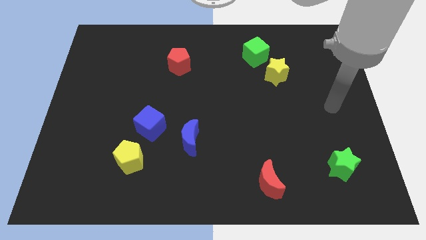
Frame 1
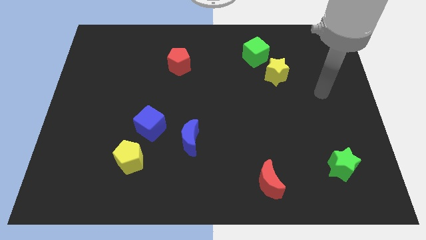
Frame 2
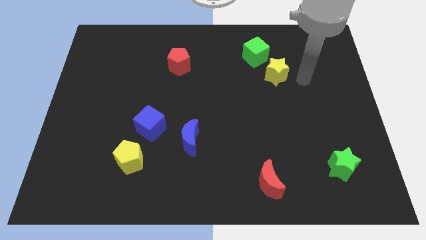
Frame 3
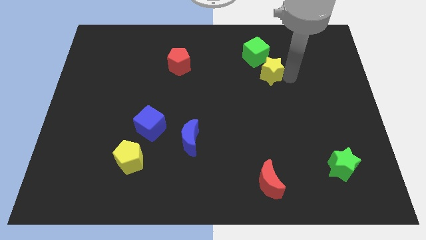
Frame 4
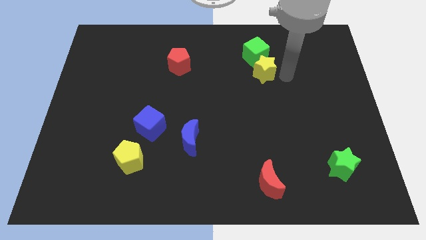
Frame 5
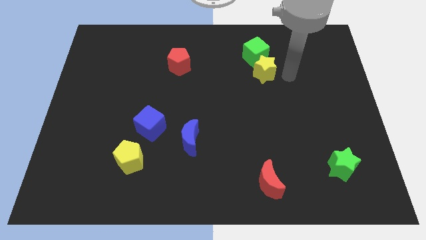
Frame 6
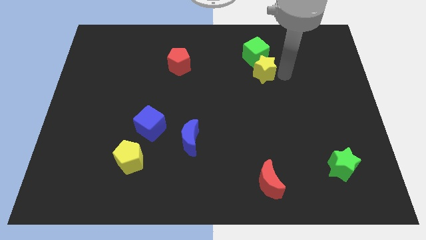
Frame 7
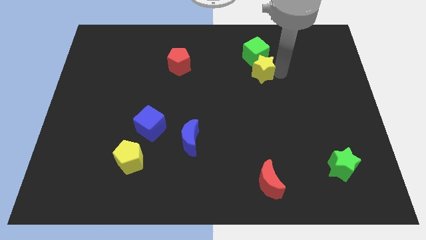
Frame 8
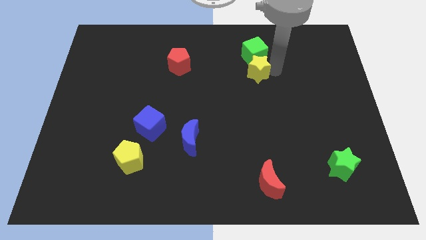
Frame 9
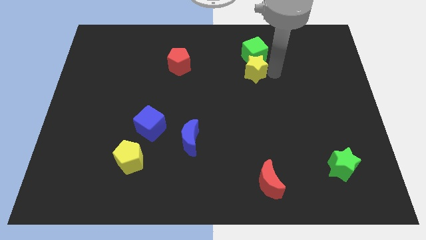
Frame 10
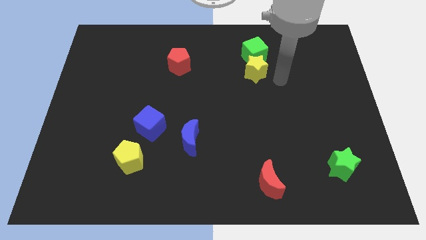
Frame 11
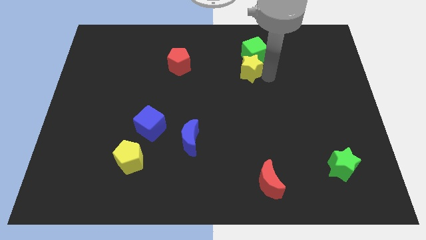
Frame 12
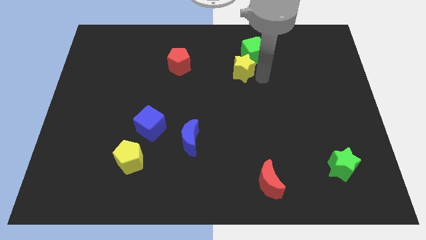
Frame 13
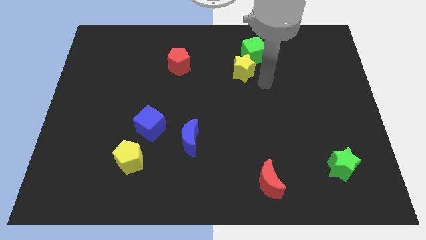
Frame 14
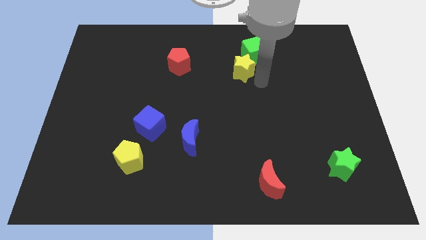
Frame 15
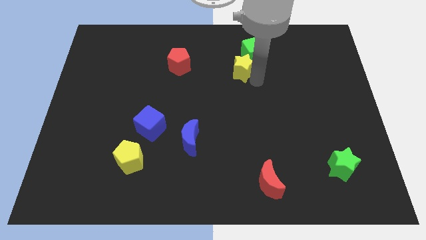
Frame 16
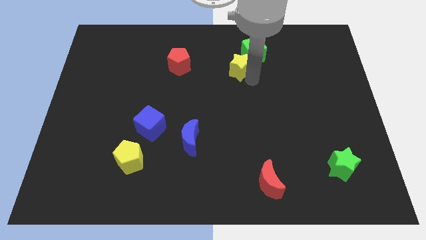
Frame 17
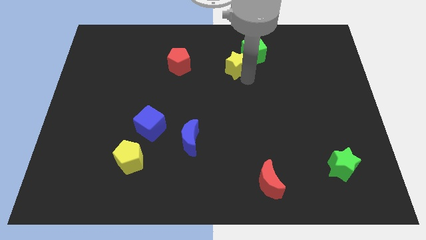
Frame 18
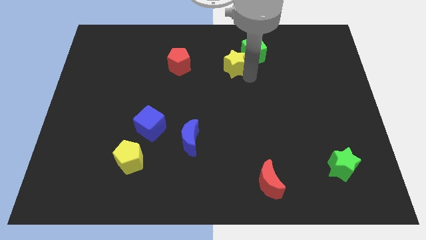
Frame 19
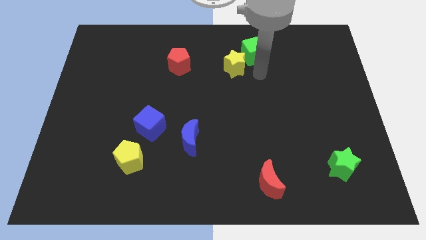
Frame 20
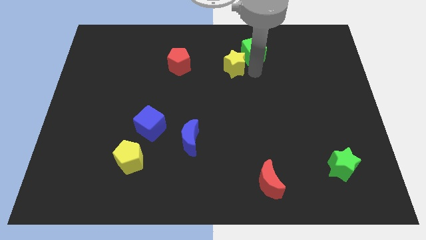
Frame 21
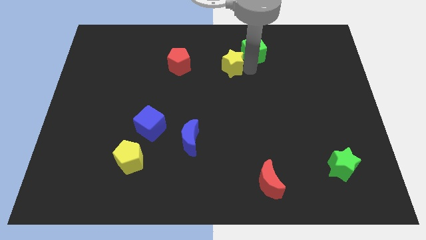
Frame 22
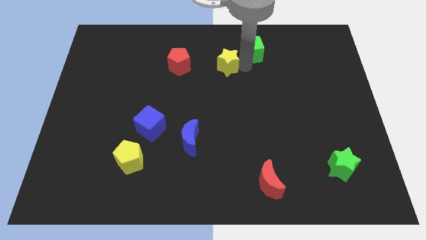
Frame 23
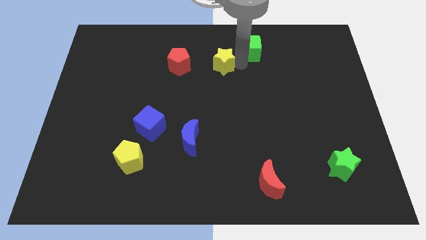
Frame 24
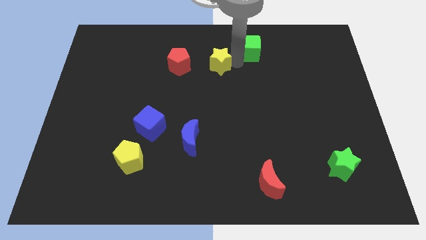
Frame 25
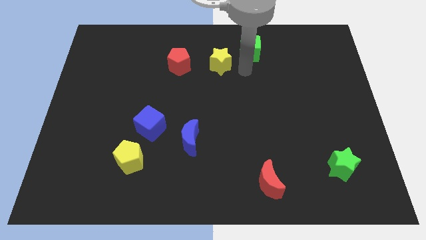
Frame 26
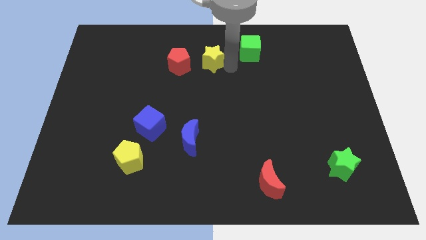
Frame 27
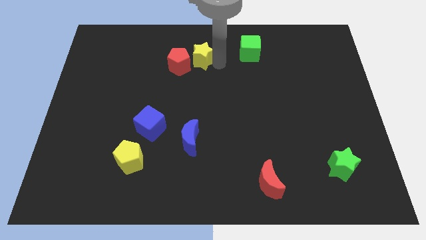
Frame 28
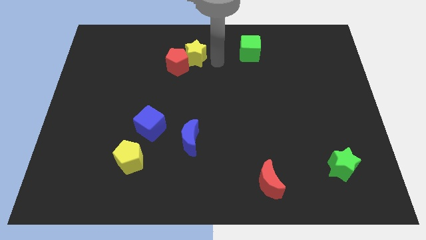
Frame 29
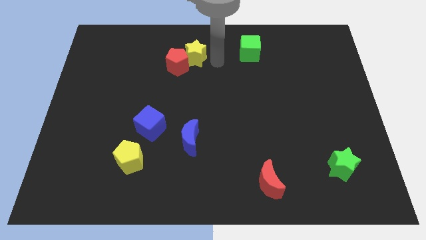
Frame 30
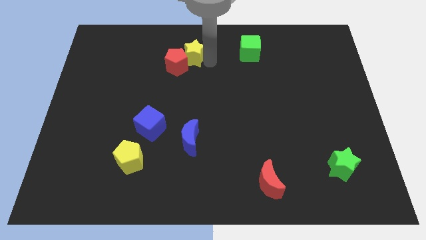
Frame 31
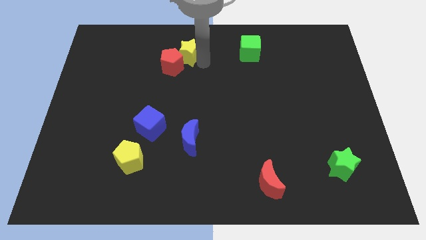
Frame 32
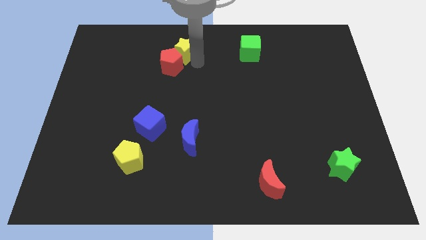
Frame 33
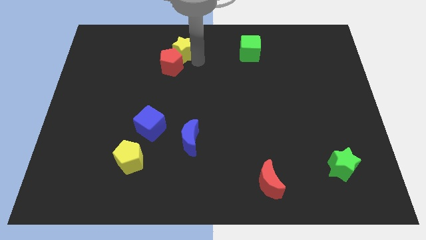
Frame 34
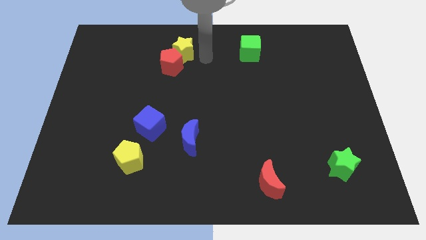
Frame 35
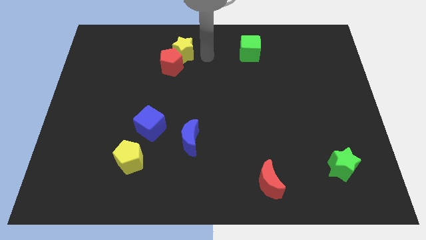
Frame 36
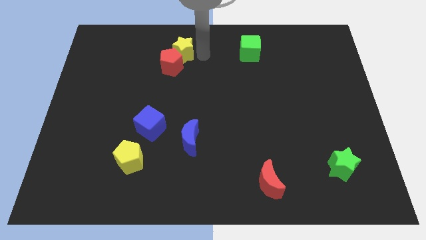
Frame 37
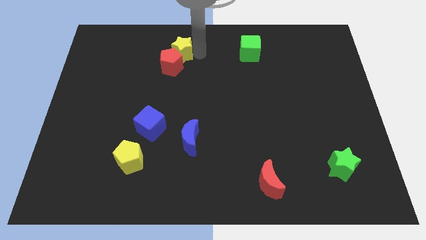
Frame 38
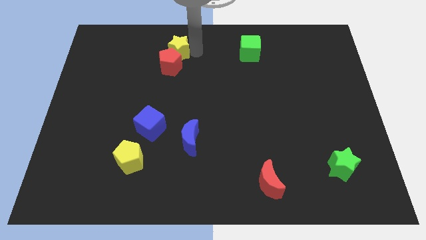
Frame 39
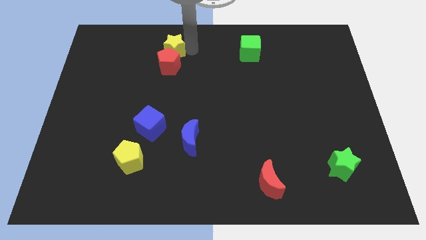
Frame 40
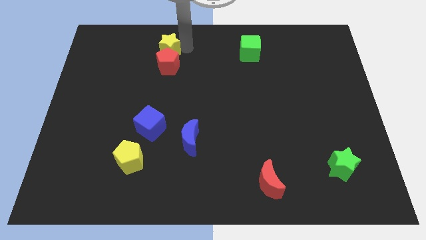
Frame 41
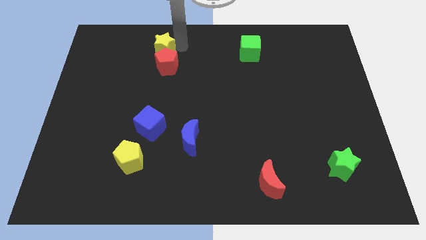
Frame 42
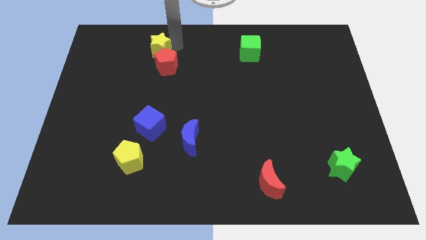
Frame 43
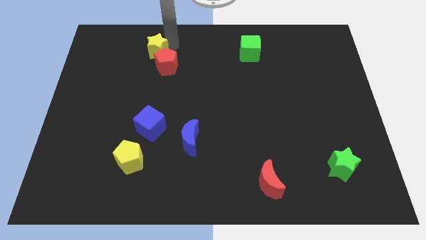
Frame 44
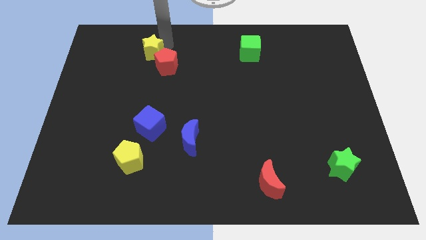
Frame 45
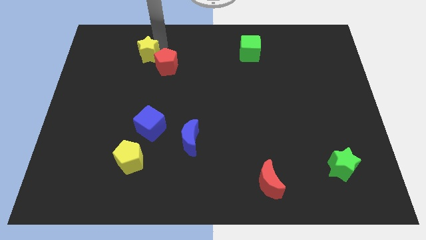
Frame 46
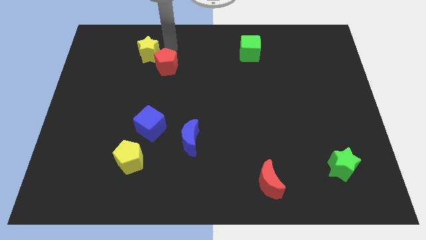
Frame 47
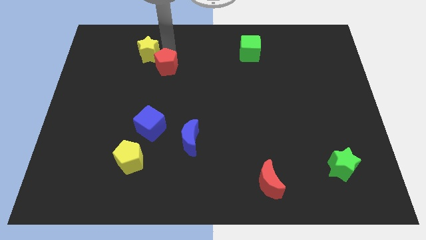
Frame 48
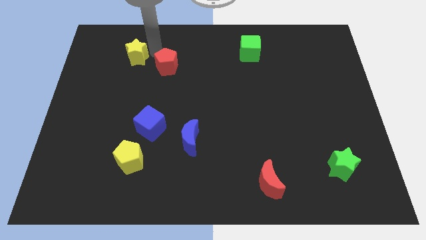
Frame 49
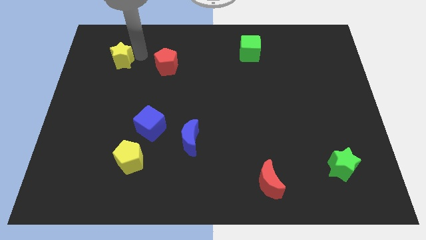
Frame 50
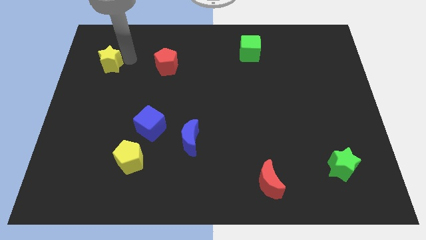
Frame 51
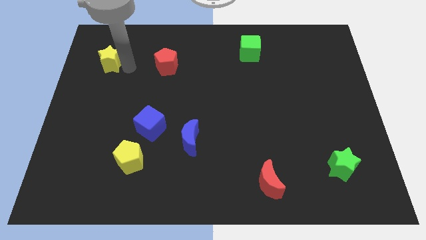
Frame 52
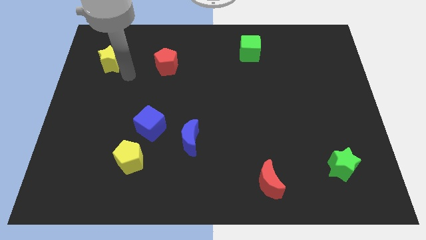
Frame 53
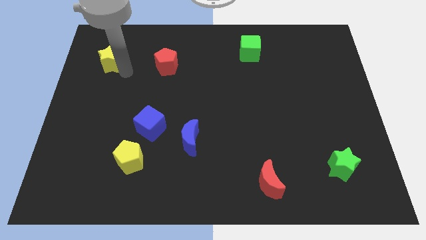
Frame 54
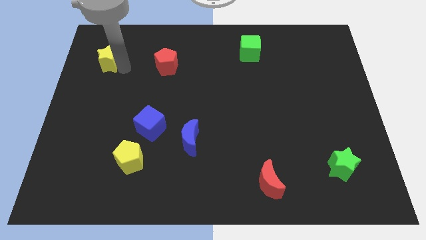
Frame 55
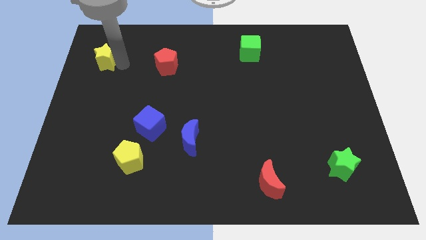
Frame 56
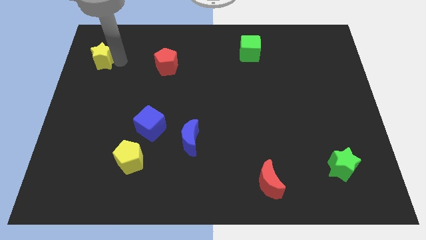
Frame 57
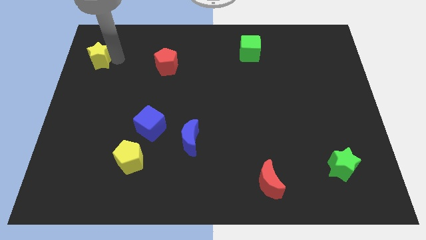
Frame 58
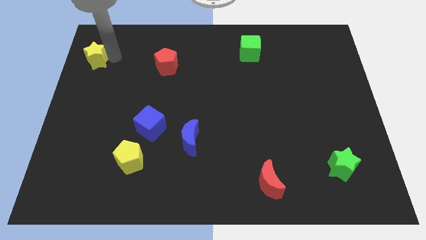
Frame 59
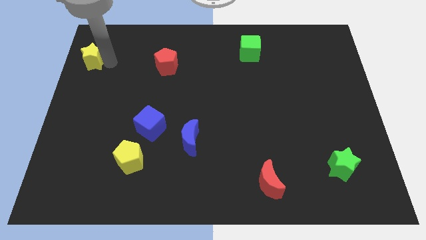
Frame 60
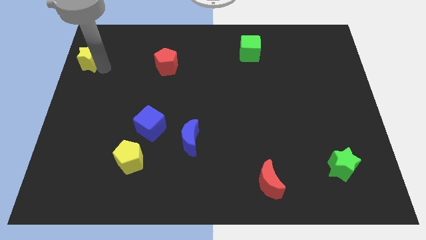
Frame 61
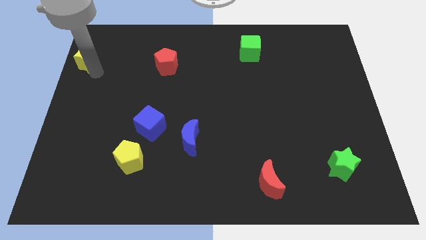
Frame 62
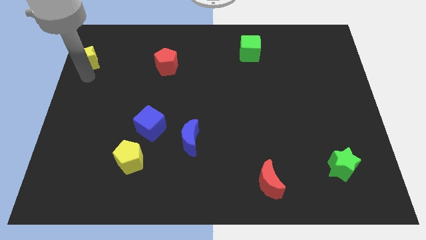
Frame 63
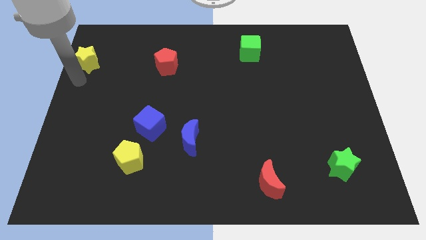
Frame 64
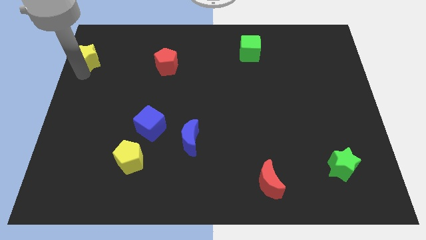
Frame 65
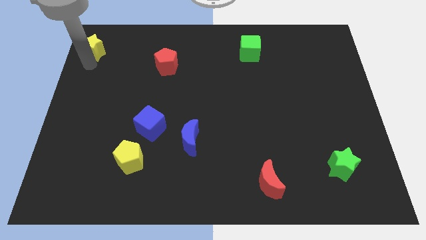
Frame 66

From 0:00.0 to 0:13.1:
push the yellow star to the upper left corner
